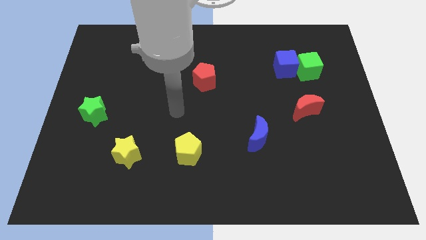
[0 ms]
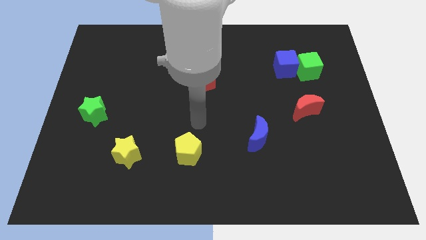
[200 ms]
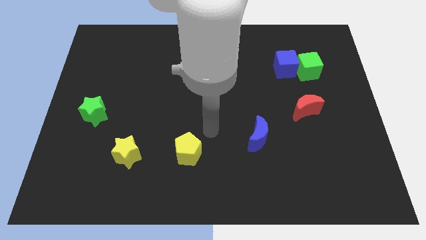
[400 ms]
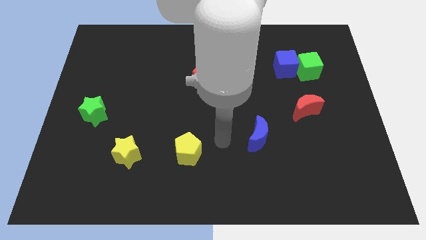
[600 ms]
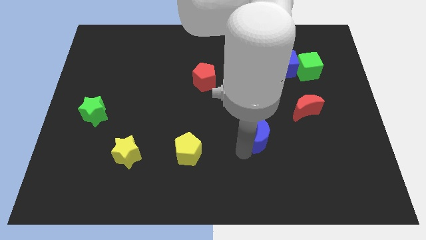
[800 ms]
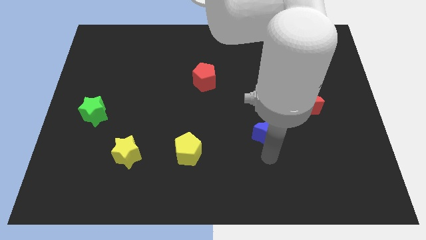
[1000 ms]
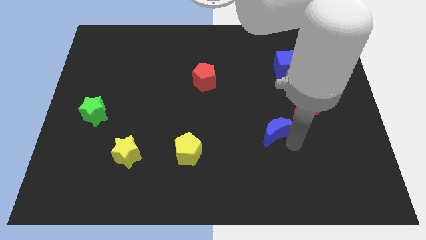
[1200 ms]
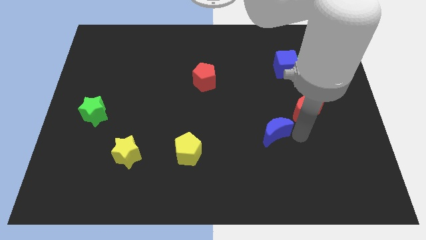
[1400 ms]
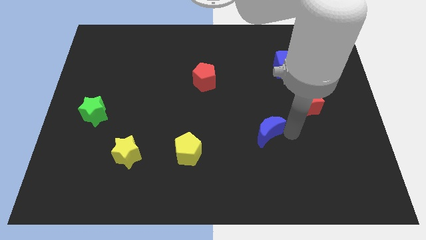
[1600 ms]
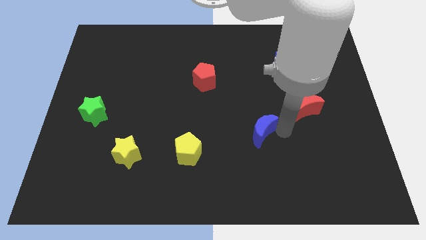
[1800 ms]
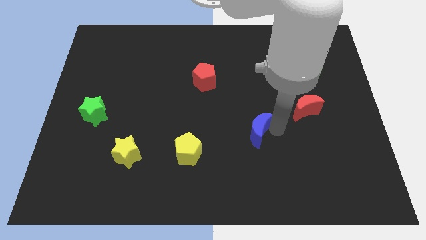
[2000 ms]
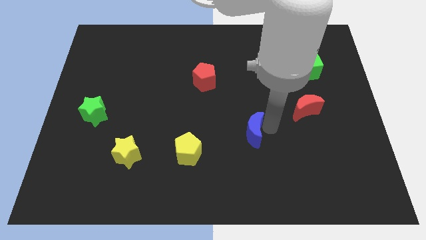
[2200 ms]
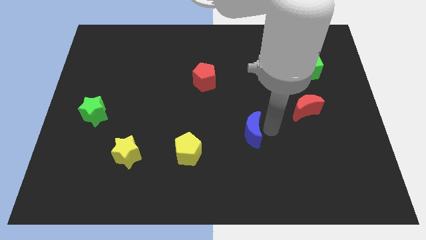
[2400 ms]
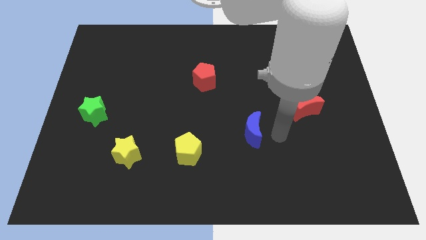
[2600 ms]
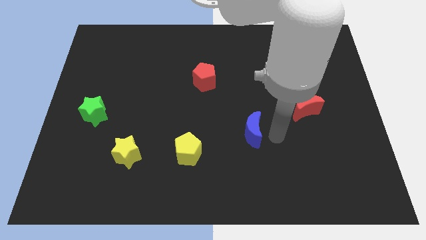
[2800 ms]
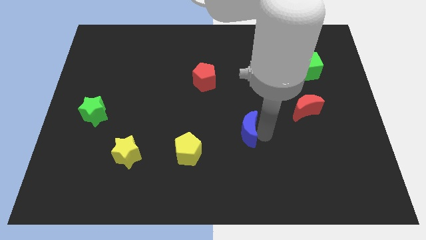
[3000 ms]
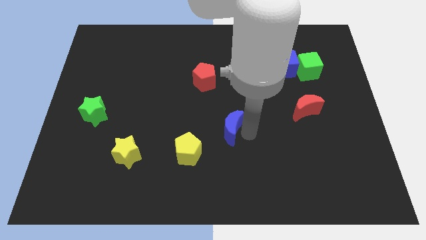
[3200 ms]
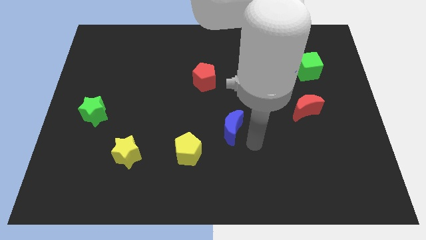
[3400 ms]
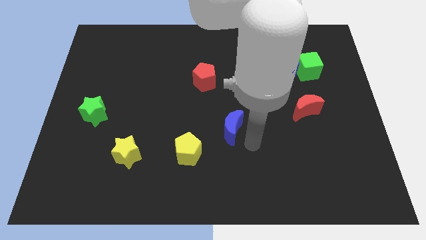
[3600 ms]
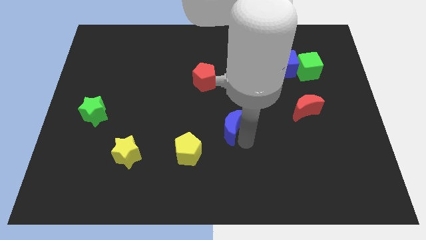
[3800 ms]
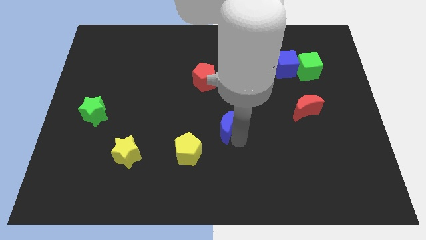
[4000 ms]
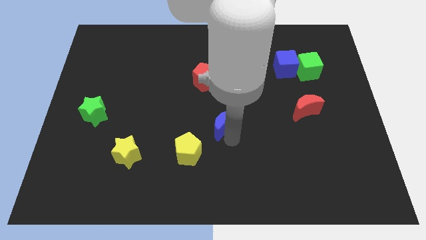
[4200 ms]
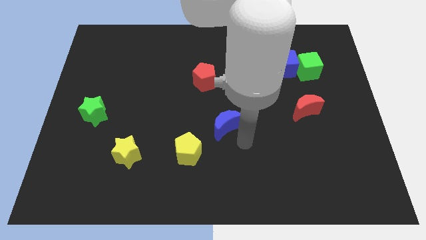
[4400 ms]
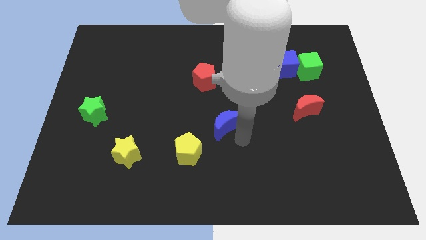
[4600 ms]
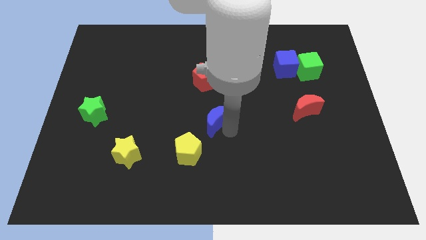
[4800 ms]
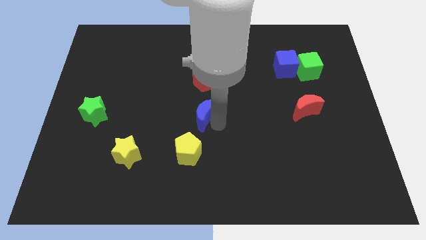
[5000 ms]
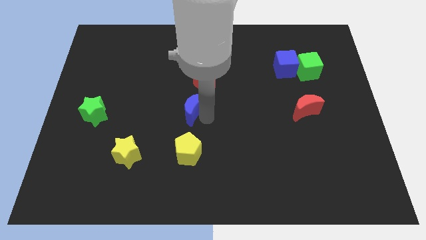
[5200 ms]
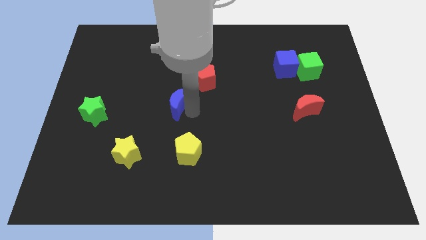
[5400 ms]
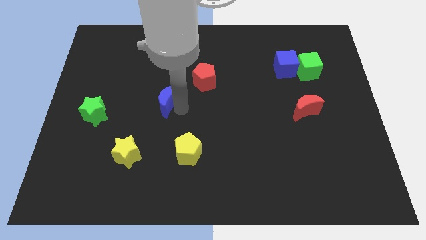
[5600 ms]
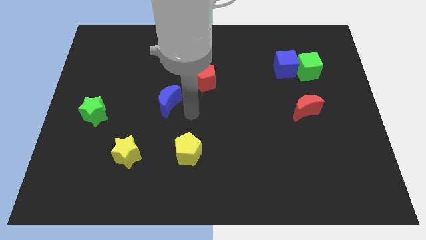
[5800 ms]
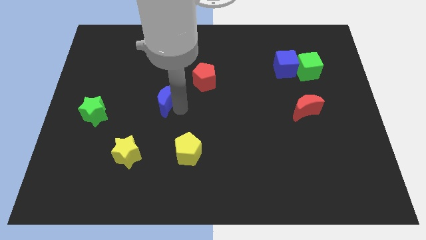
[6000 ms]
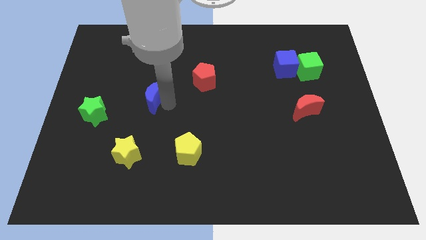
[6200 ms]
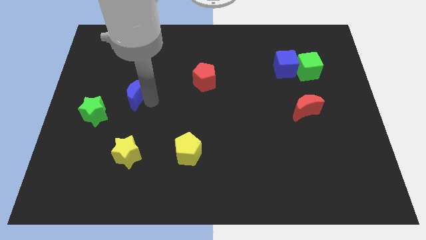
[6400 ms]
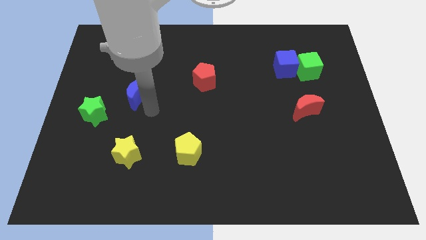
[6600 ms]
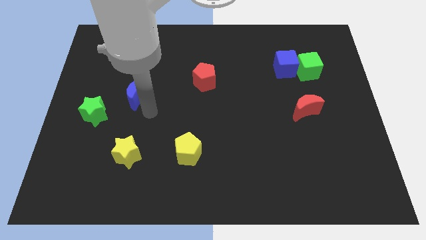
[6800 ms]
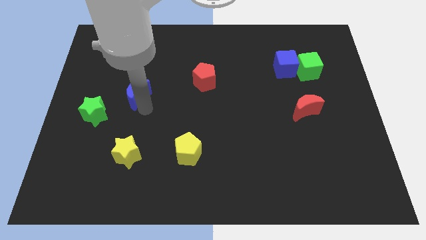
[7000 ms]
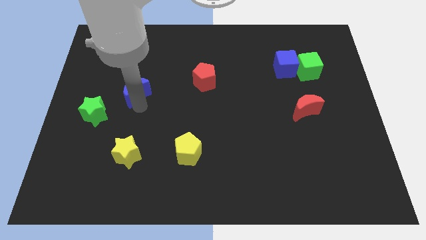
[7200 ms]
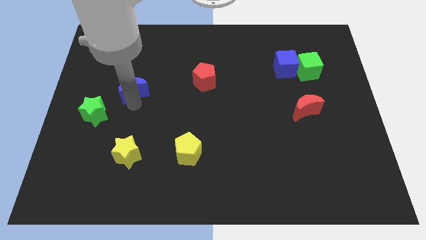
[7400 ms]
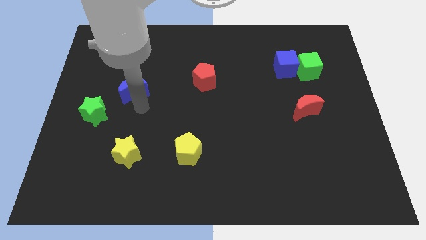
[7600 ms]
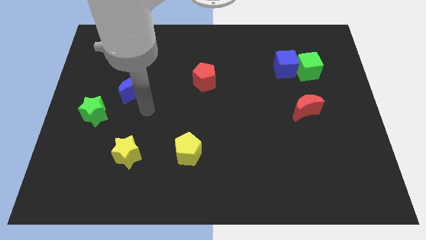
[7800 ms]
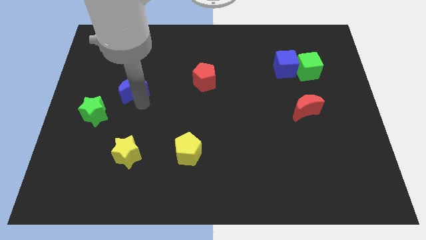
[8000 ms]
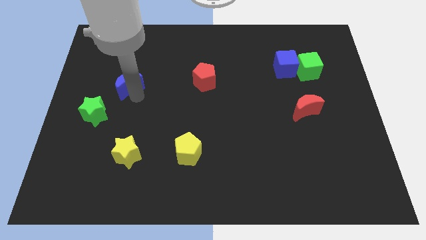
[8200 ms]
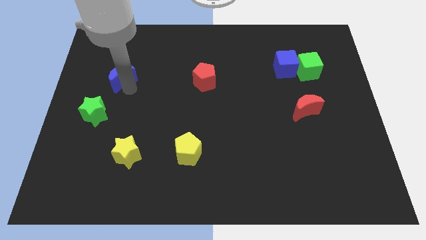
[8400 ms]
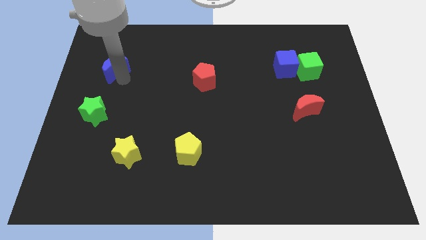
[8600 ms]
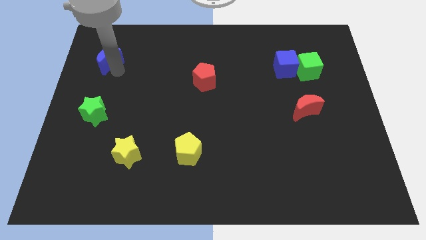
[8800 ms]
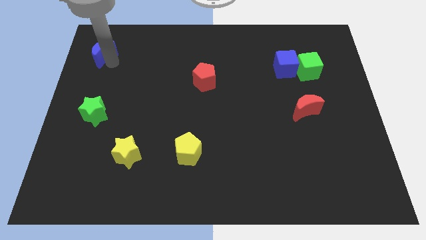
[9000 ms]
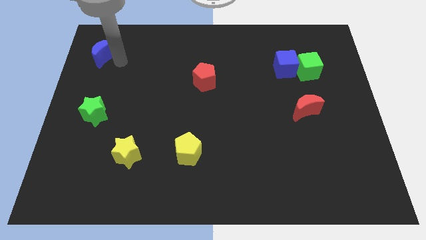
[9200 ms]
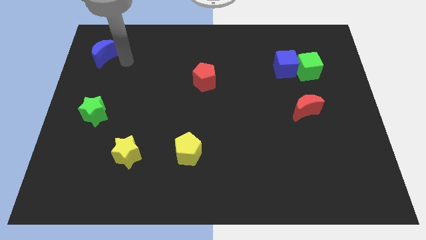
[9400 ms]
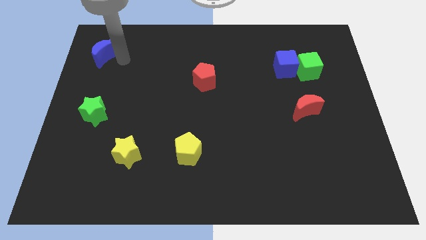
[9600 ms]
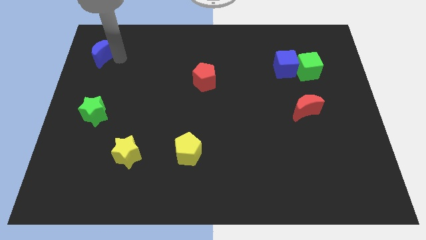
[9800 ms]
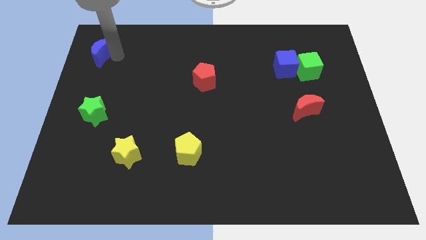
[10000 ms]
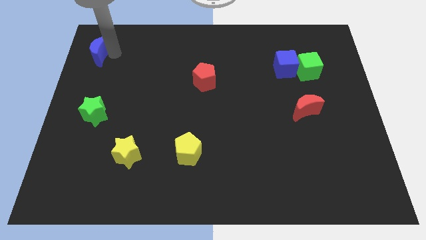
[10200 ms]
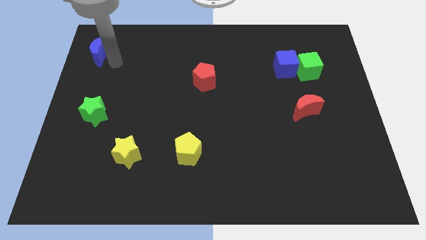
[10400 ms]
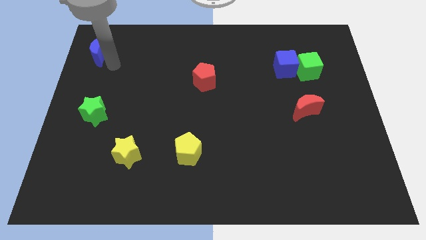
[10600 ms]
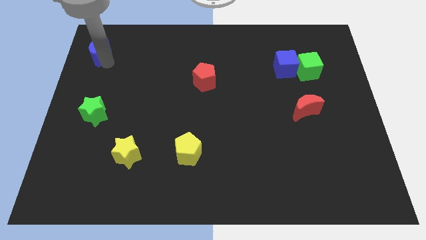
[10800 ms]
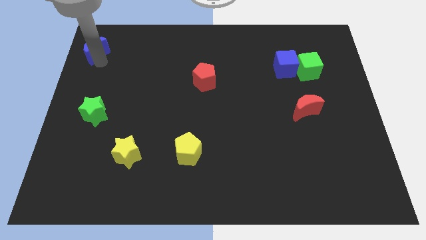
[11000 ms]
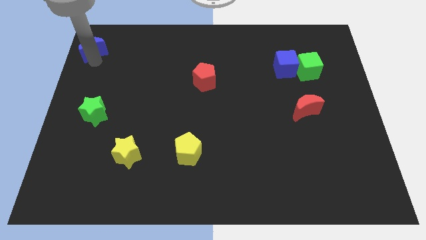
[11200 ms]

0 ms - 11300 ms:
put the blue moon to the top left

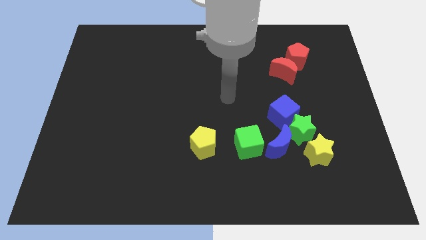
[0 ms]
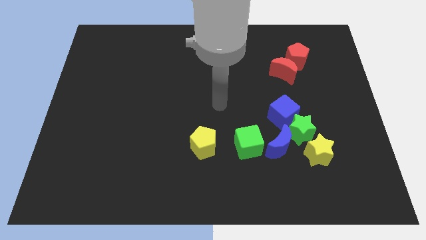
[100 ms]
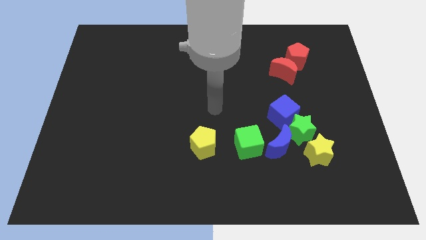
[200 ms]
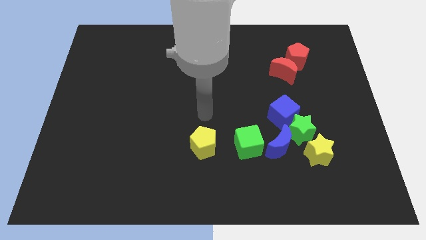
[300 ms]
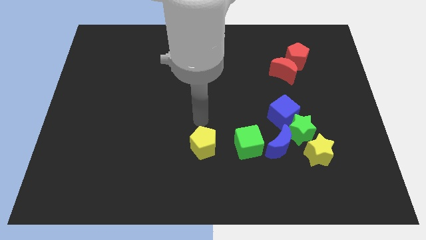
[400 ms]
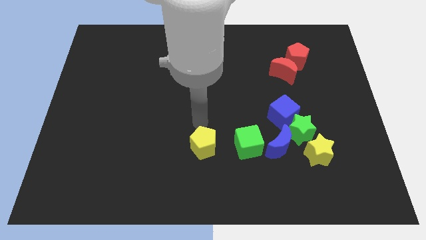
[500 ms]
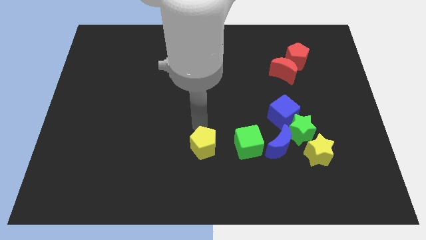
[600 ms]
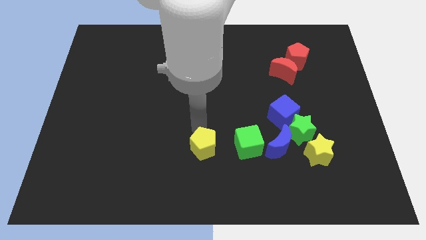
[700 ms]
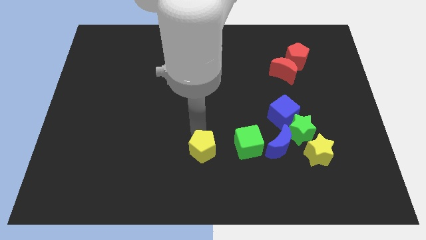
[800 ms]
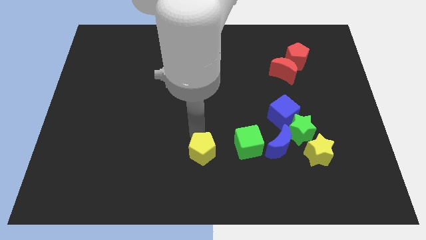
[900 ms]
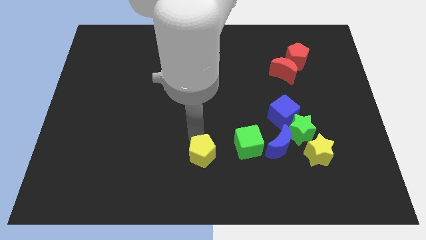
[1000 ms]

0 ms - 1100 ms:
push the yellow pentagon to the bottom side

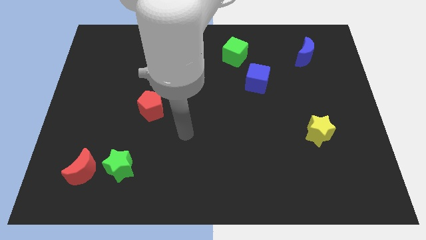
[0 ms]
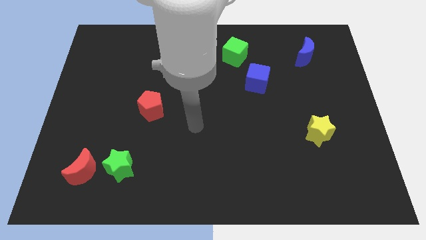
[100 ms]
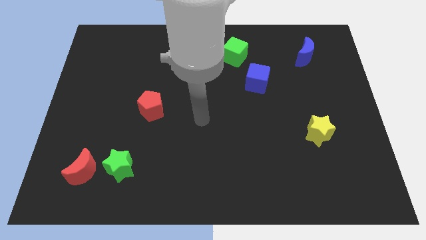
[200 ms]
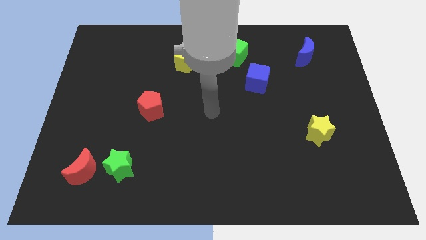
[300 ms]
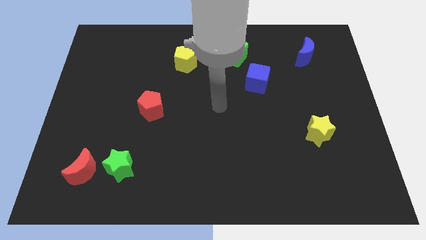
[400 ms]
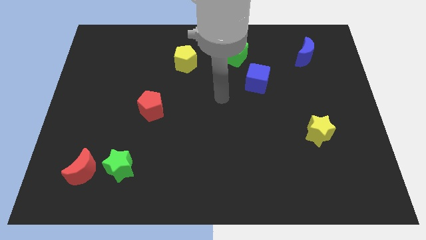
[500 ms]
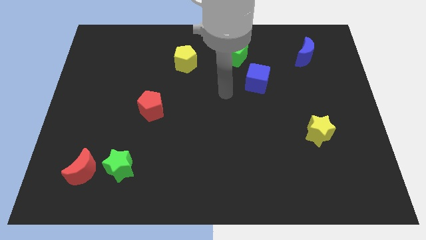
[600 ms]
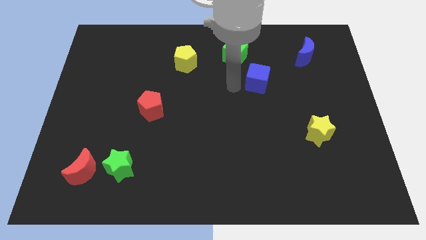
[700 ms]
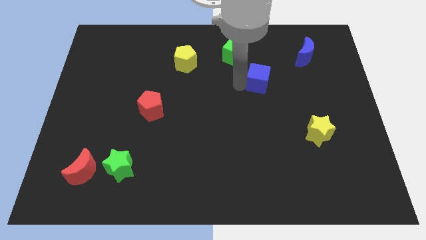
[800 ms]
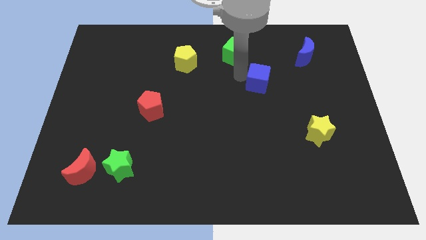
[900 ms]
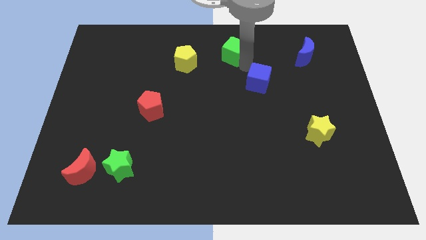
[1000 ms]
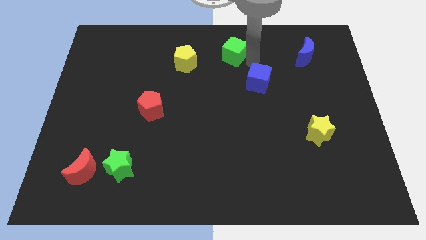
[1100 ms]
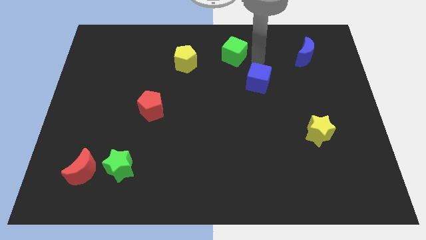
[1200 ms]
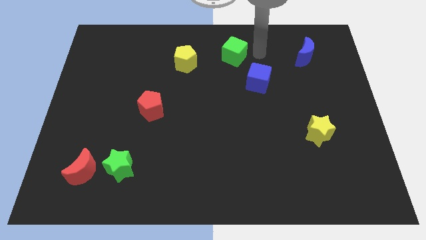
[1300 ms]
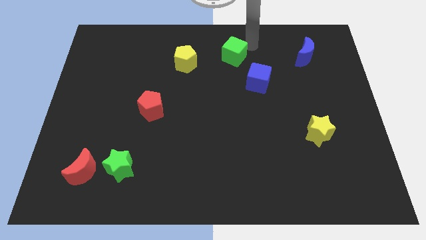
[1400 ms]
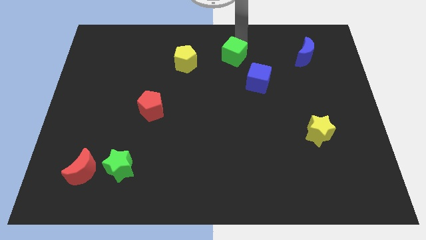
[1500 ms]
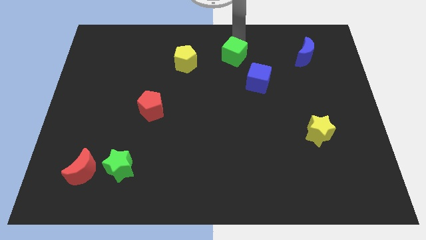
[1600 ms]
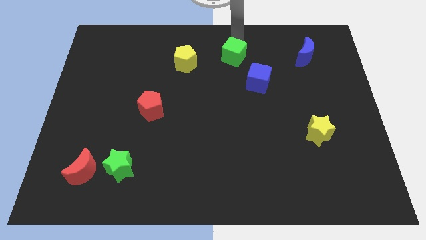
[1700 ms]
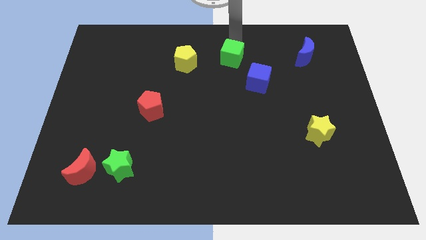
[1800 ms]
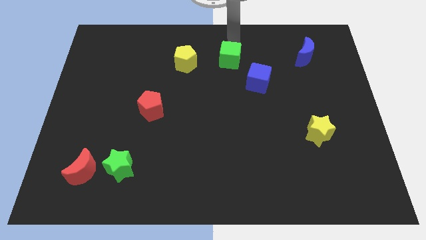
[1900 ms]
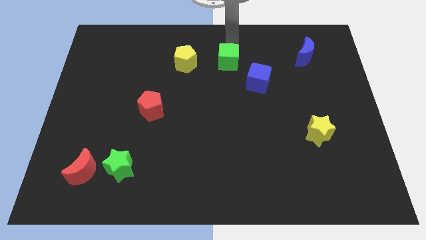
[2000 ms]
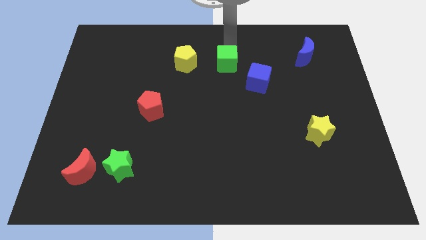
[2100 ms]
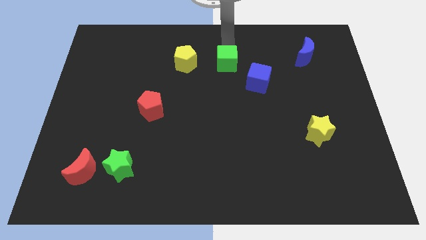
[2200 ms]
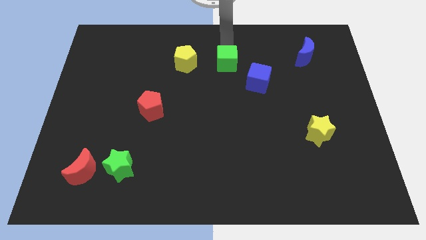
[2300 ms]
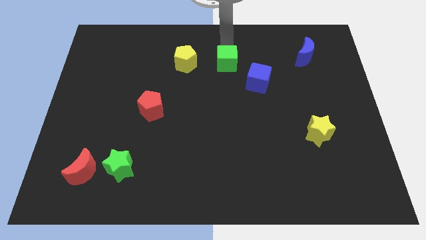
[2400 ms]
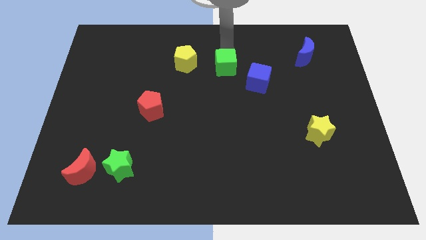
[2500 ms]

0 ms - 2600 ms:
move the green cube to the middle
